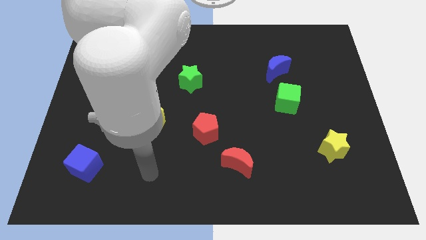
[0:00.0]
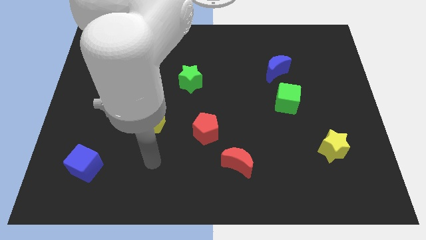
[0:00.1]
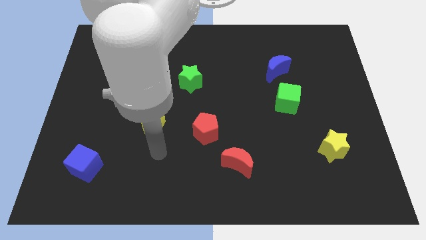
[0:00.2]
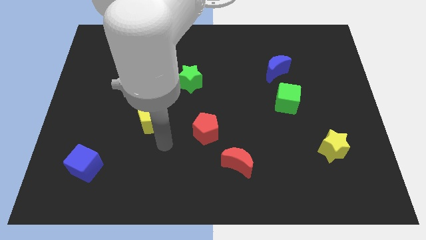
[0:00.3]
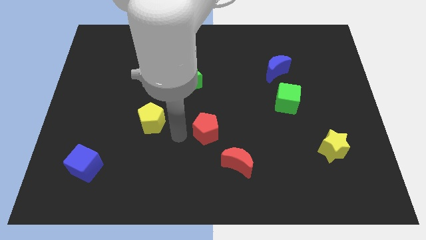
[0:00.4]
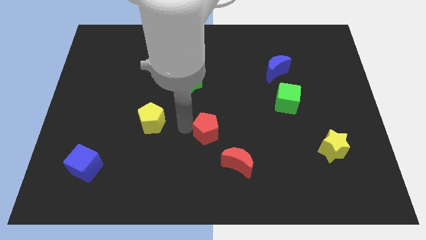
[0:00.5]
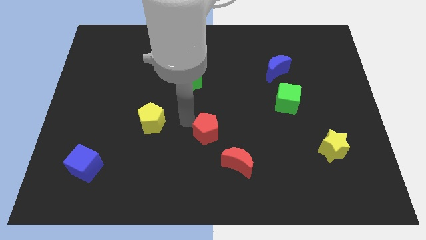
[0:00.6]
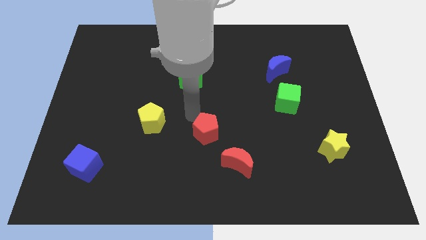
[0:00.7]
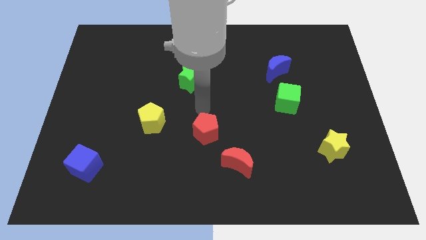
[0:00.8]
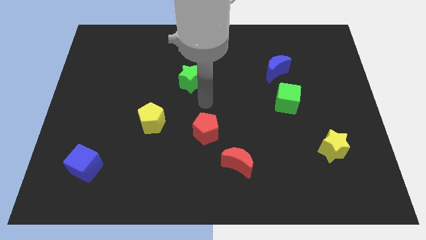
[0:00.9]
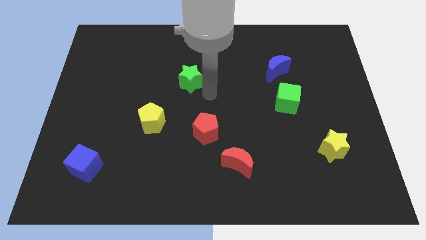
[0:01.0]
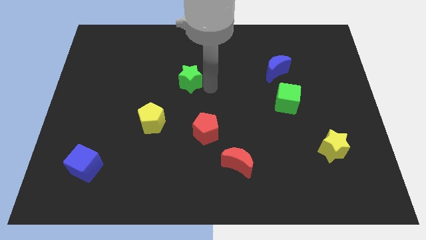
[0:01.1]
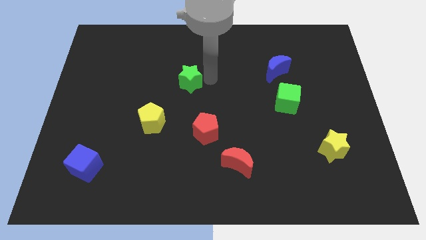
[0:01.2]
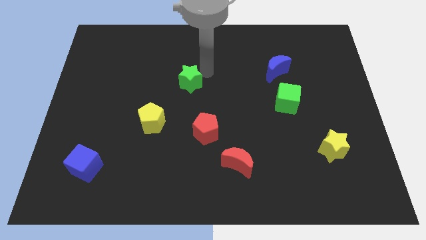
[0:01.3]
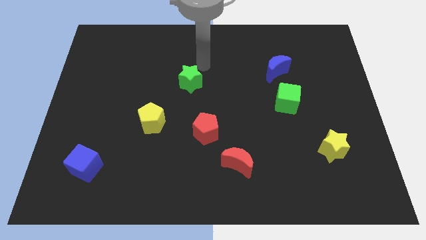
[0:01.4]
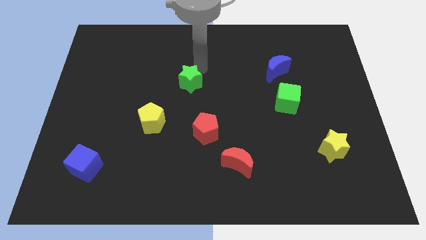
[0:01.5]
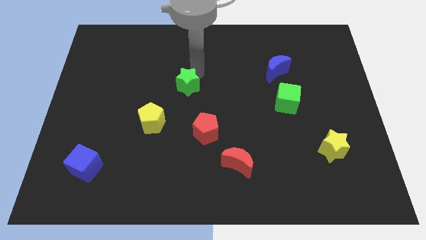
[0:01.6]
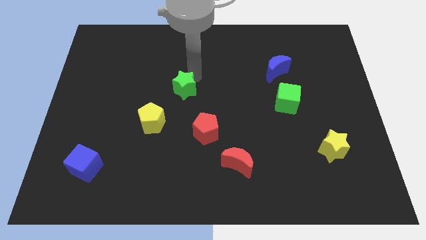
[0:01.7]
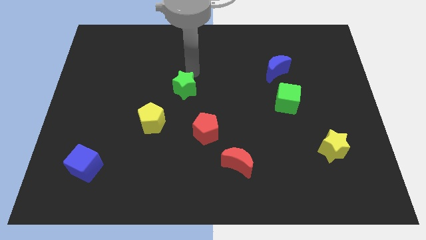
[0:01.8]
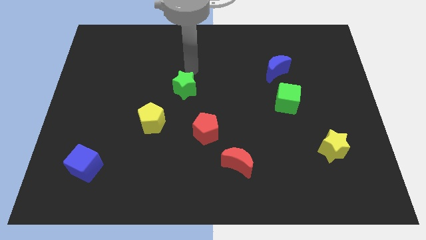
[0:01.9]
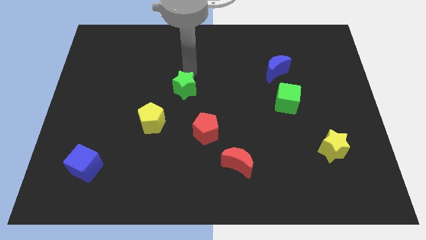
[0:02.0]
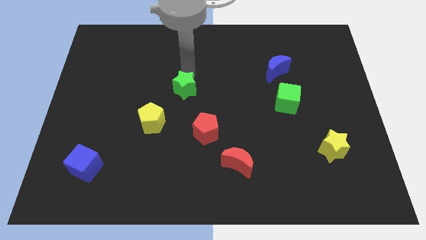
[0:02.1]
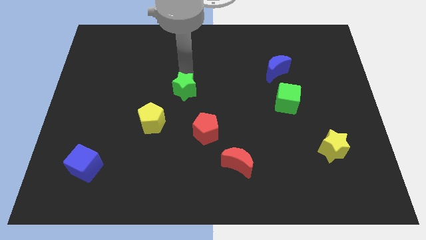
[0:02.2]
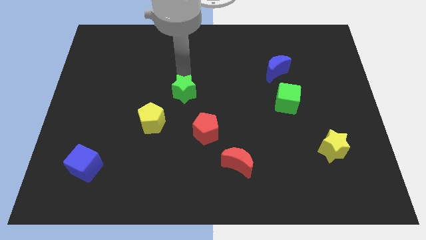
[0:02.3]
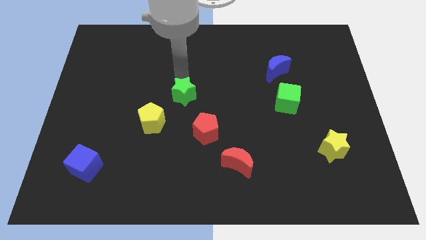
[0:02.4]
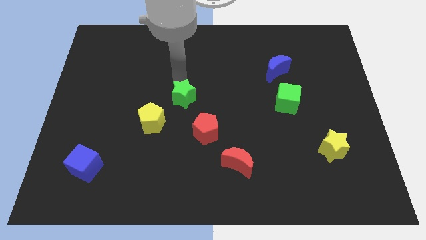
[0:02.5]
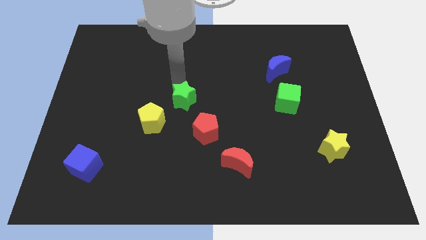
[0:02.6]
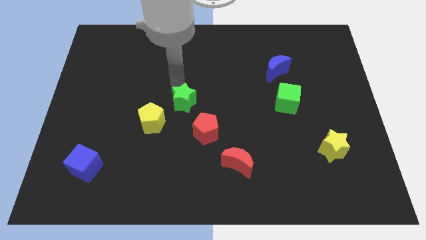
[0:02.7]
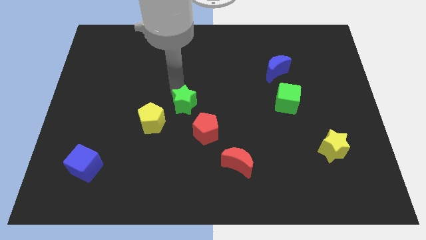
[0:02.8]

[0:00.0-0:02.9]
push the green star a little downwards

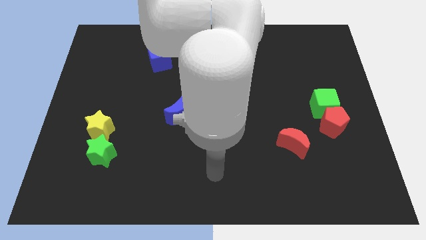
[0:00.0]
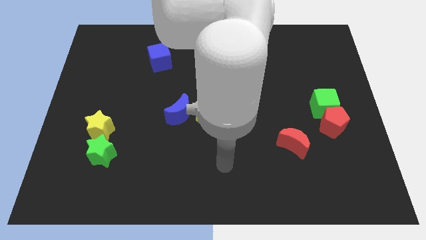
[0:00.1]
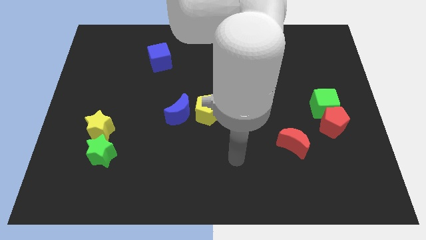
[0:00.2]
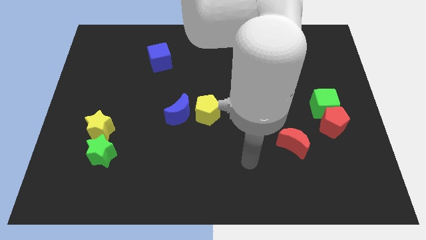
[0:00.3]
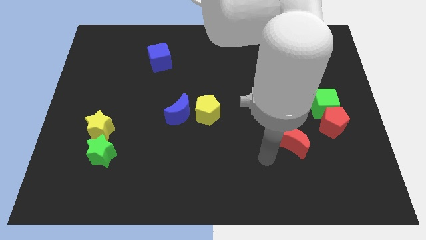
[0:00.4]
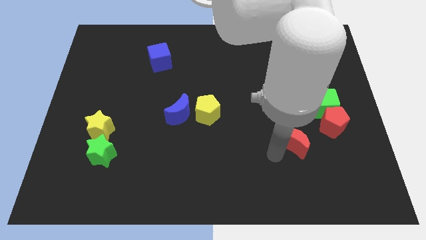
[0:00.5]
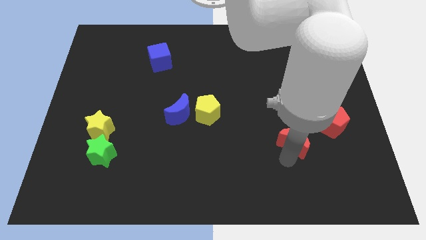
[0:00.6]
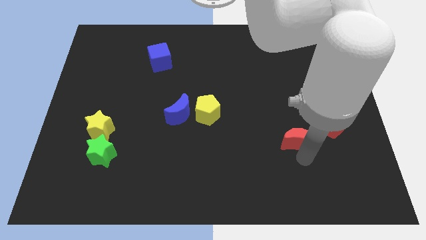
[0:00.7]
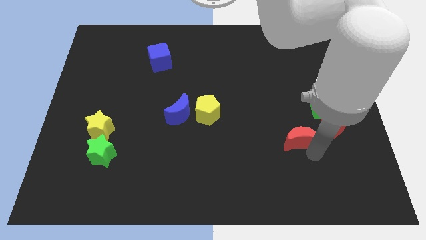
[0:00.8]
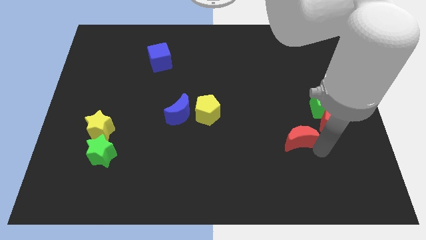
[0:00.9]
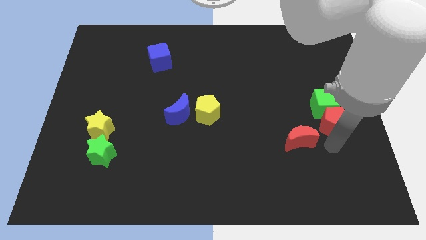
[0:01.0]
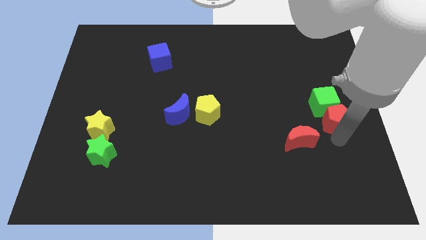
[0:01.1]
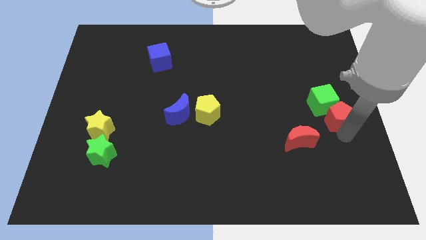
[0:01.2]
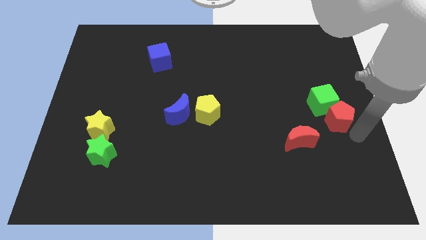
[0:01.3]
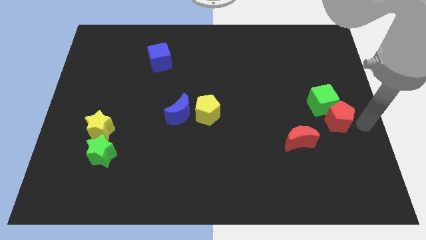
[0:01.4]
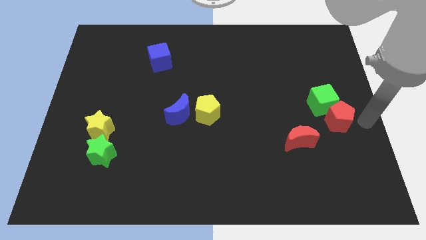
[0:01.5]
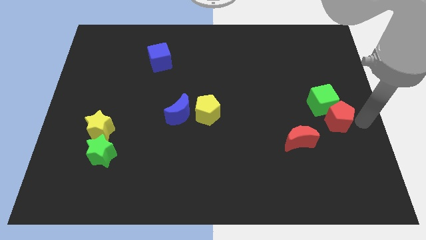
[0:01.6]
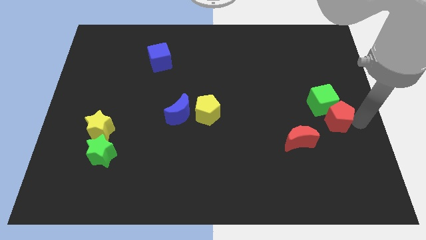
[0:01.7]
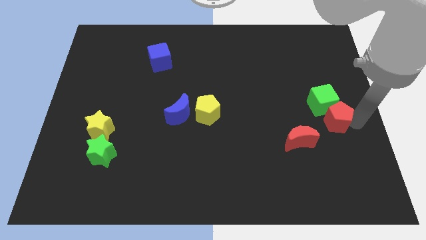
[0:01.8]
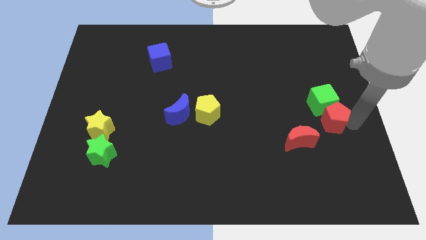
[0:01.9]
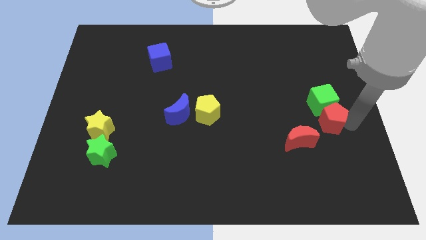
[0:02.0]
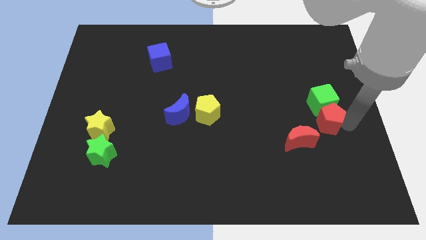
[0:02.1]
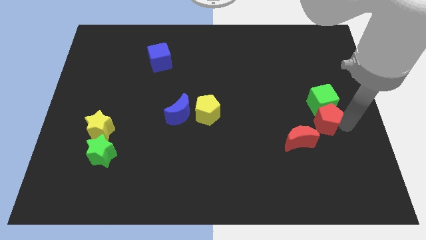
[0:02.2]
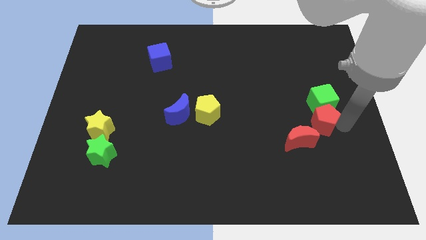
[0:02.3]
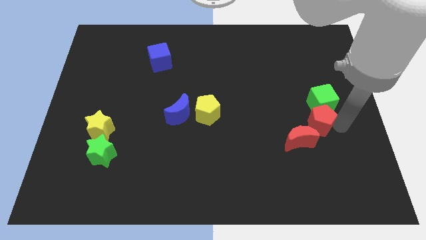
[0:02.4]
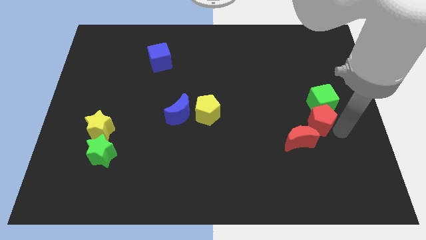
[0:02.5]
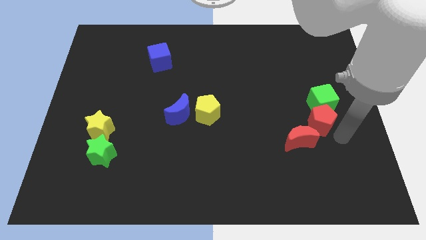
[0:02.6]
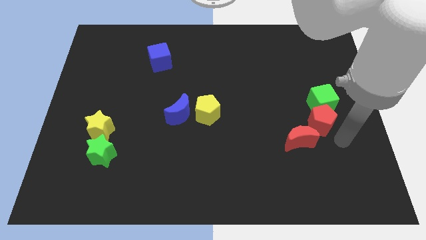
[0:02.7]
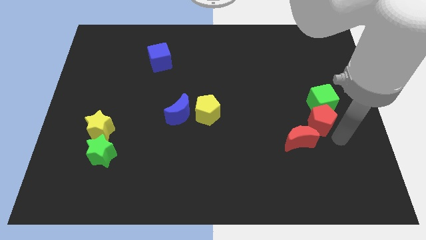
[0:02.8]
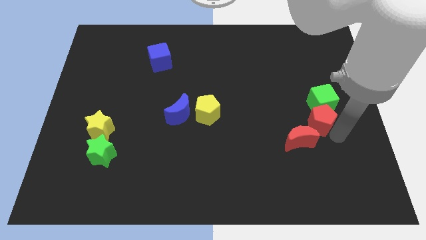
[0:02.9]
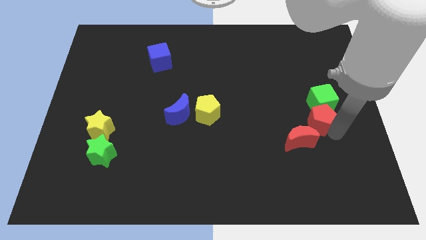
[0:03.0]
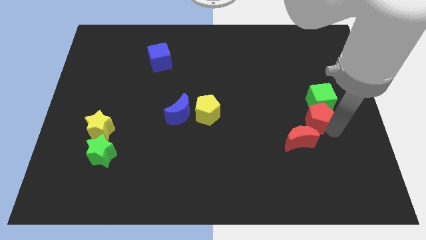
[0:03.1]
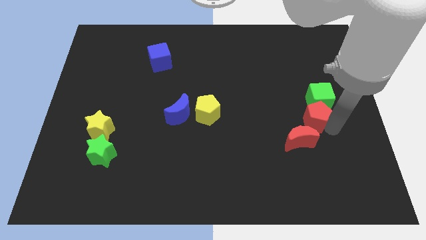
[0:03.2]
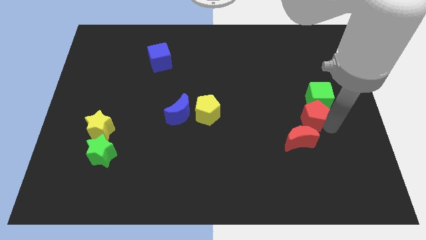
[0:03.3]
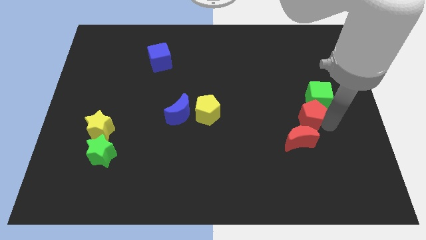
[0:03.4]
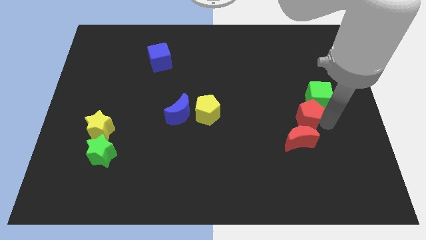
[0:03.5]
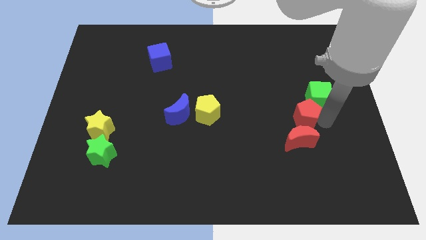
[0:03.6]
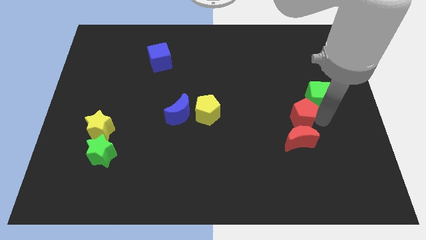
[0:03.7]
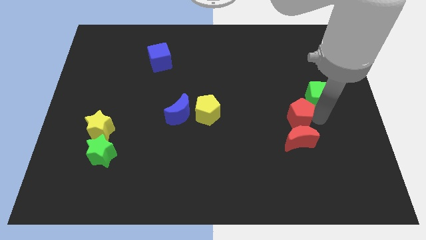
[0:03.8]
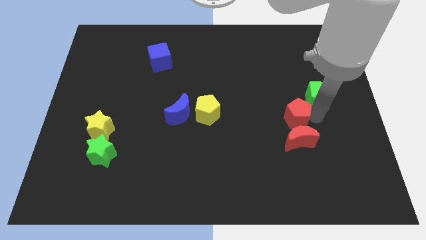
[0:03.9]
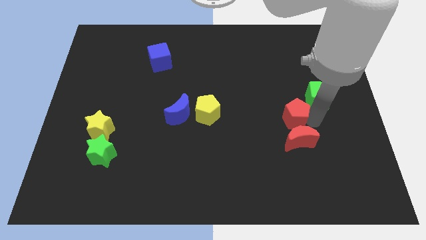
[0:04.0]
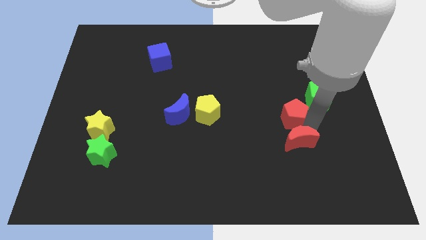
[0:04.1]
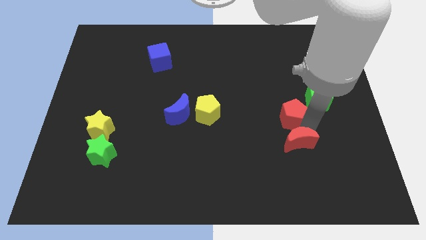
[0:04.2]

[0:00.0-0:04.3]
push the red pentagon up and to the left somewhat

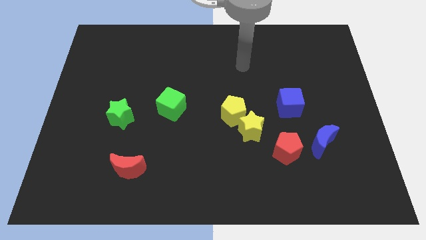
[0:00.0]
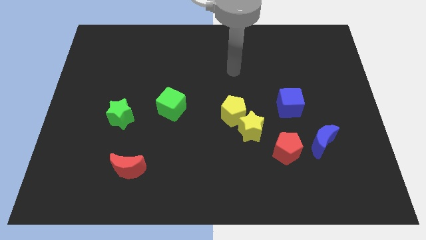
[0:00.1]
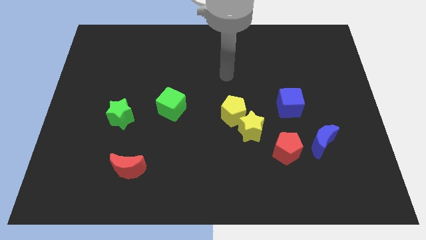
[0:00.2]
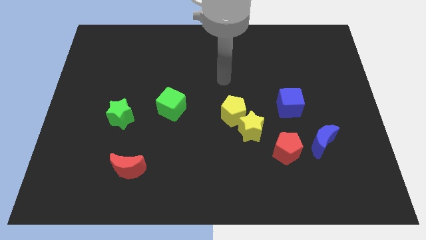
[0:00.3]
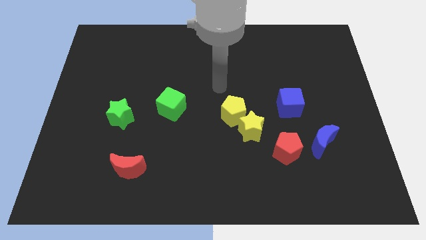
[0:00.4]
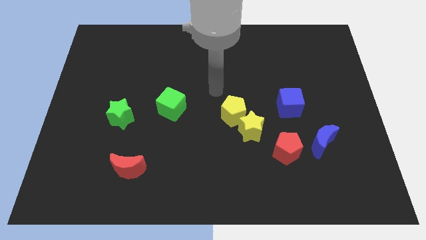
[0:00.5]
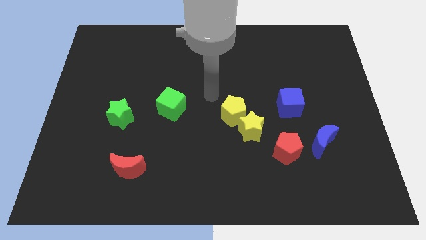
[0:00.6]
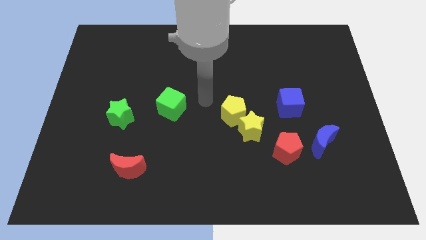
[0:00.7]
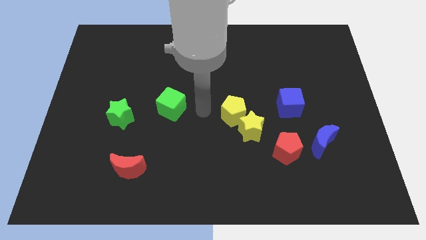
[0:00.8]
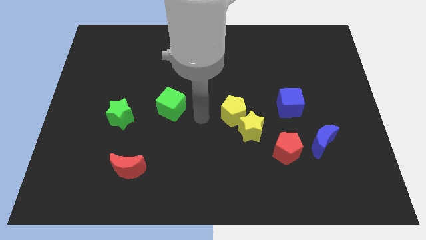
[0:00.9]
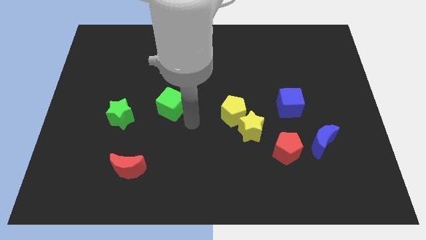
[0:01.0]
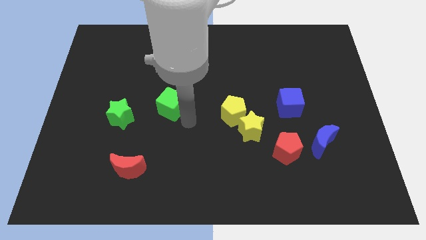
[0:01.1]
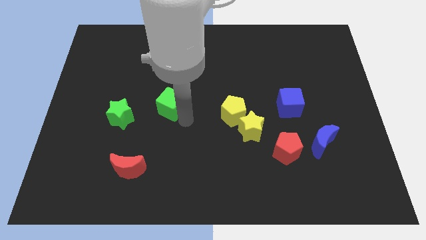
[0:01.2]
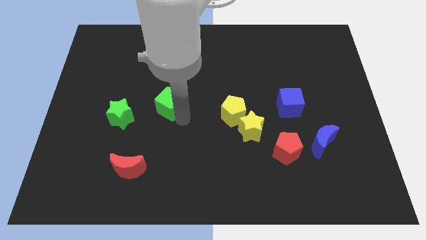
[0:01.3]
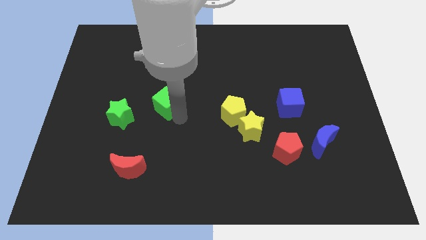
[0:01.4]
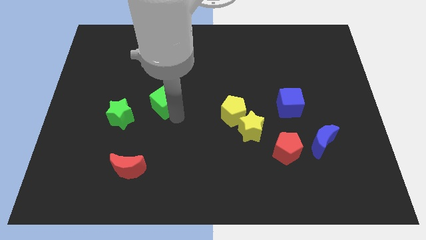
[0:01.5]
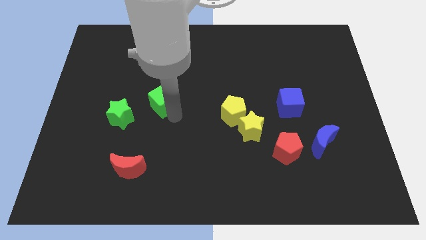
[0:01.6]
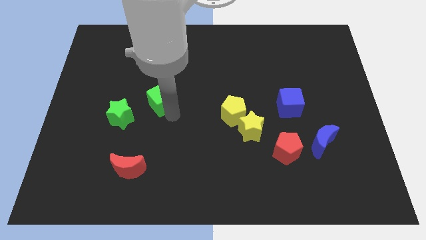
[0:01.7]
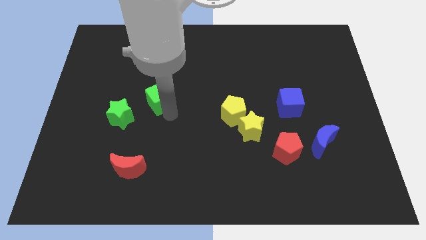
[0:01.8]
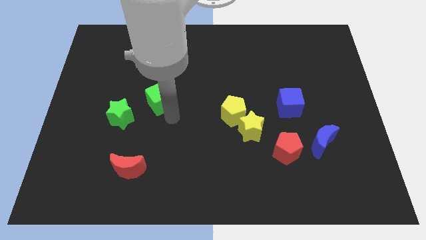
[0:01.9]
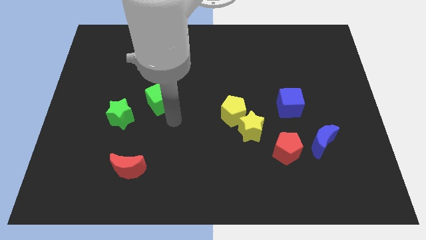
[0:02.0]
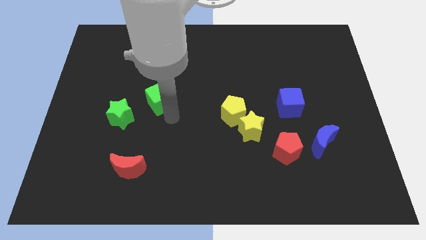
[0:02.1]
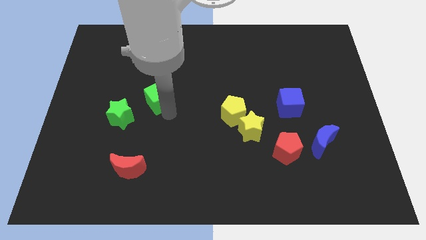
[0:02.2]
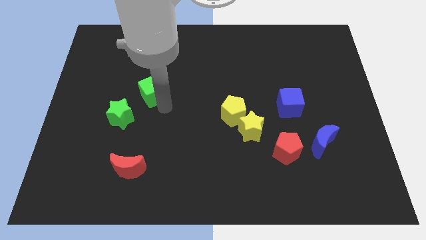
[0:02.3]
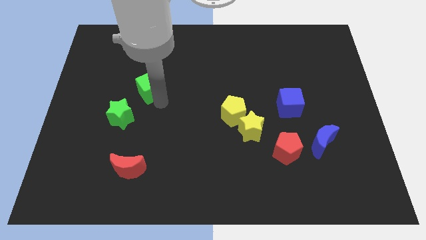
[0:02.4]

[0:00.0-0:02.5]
slide the green cube a bit up and to the left diagonally
